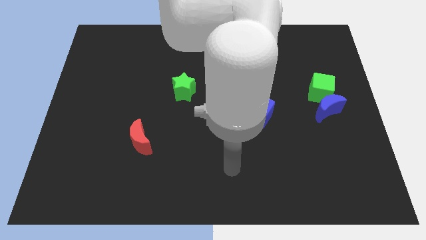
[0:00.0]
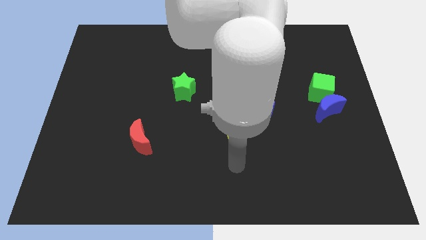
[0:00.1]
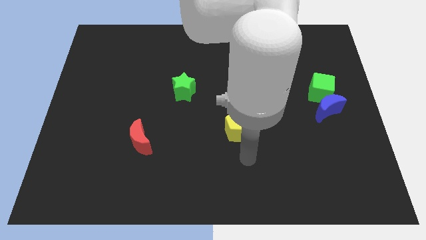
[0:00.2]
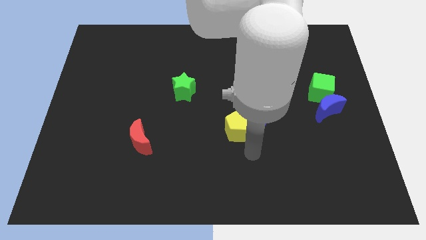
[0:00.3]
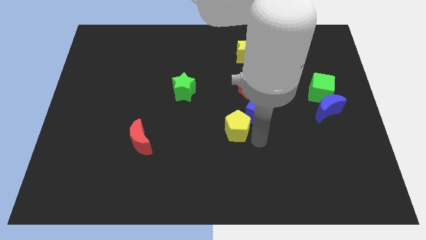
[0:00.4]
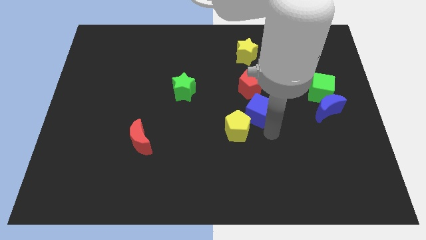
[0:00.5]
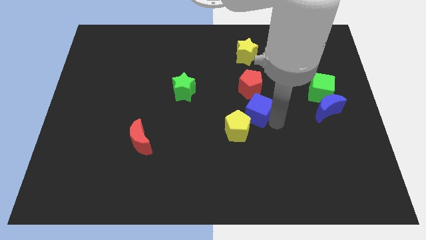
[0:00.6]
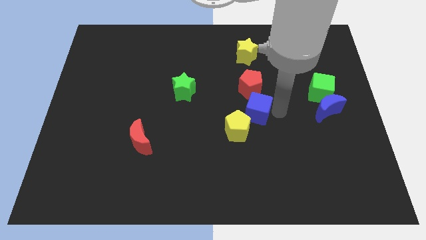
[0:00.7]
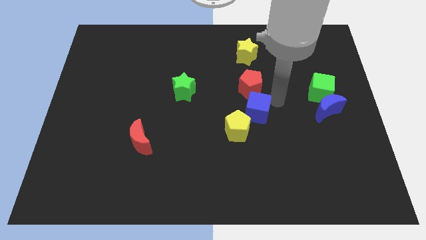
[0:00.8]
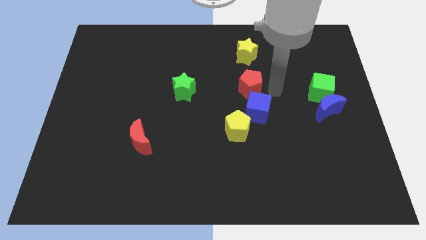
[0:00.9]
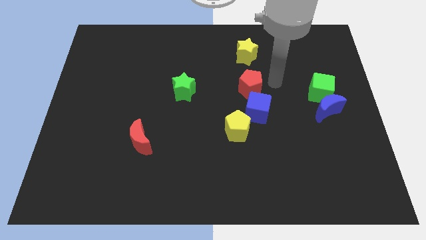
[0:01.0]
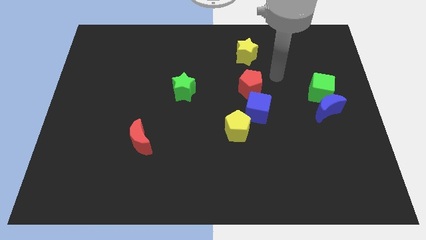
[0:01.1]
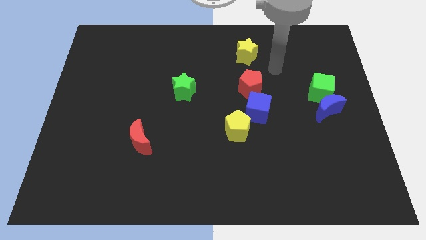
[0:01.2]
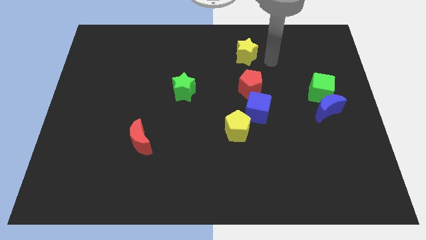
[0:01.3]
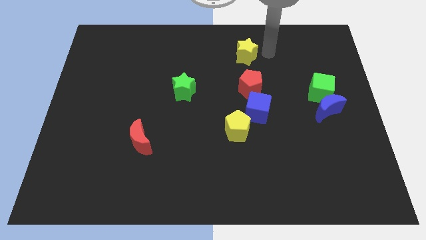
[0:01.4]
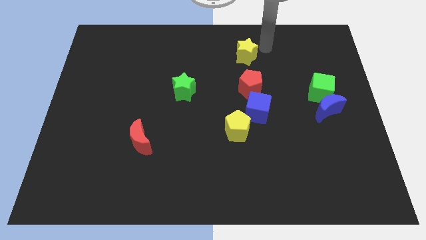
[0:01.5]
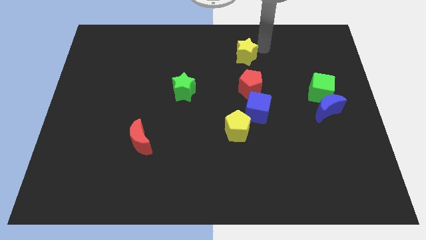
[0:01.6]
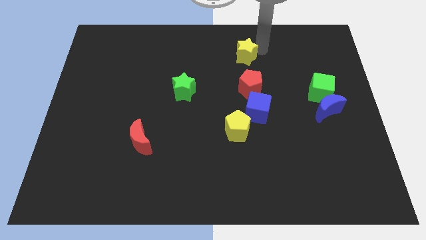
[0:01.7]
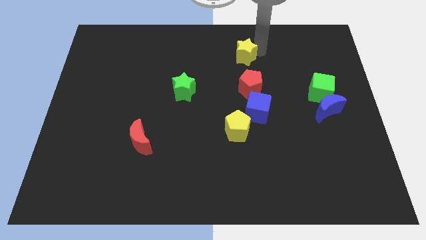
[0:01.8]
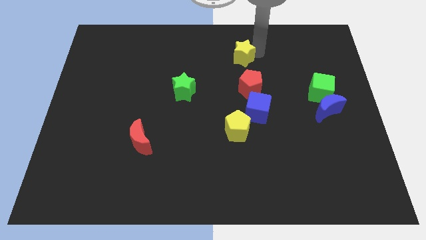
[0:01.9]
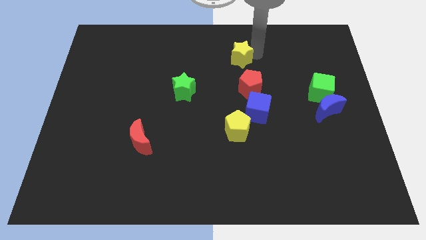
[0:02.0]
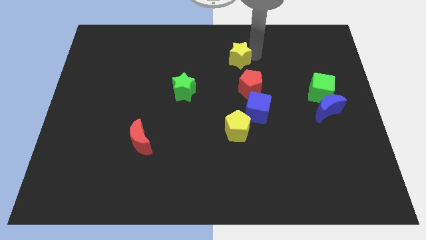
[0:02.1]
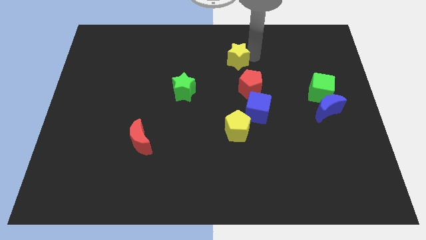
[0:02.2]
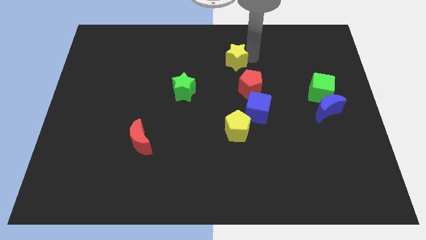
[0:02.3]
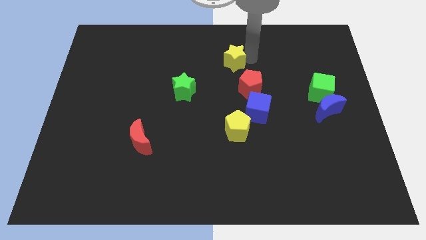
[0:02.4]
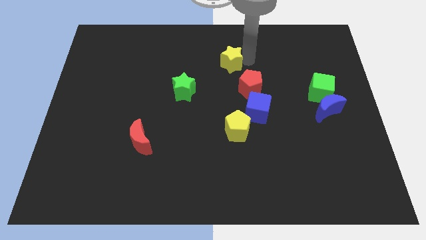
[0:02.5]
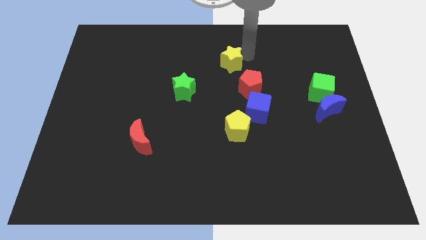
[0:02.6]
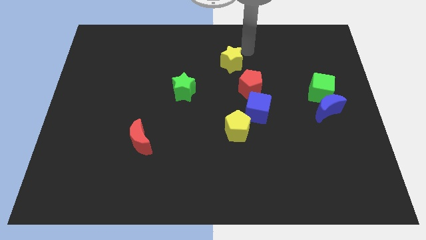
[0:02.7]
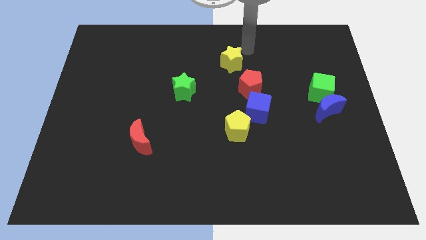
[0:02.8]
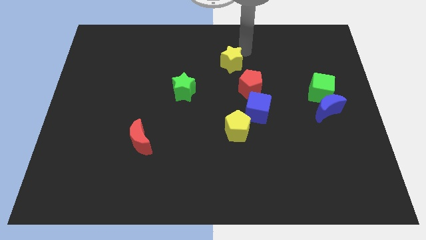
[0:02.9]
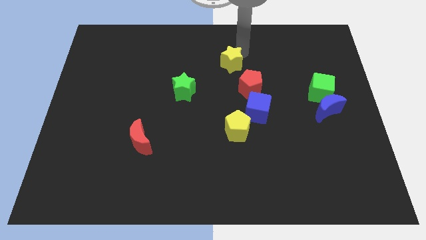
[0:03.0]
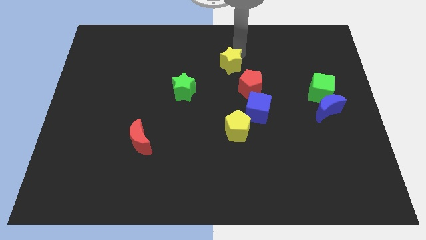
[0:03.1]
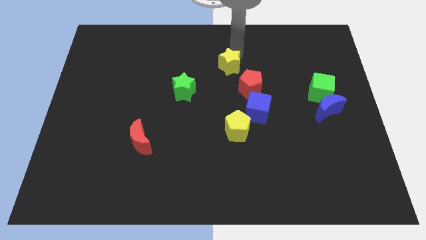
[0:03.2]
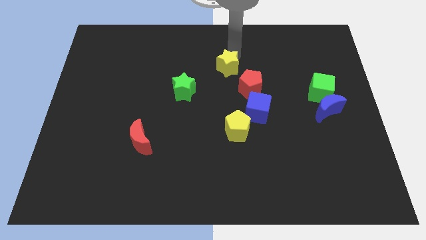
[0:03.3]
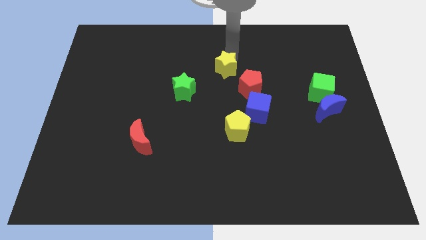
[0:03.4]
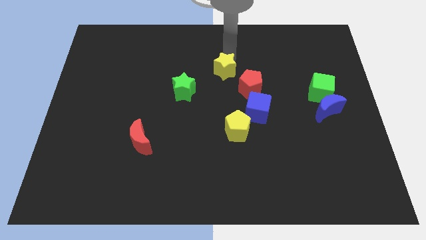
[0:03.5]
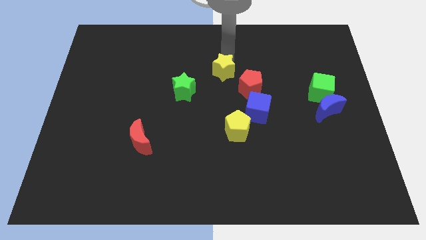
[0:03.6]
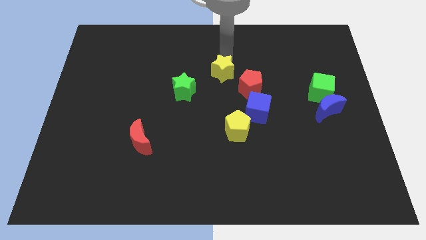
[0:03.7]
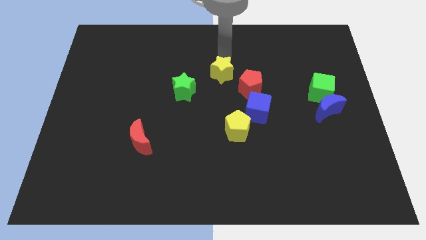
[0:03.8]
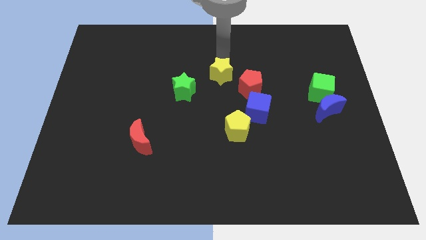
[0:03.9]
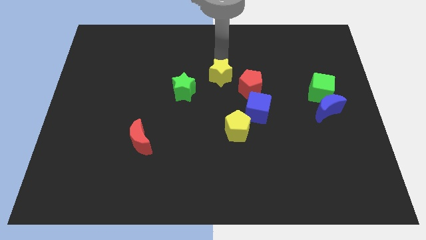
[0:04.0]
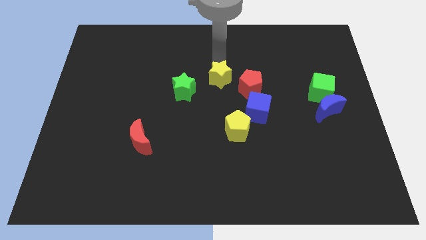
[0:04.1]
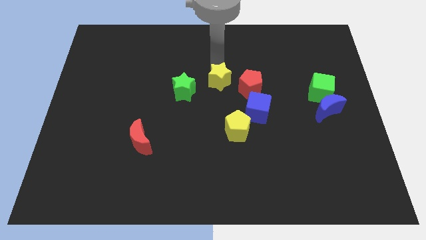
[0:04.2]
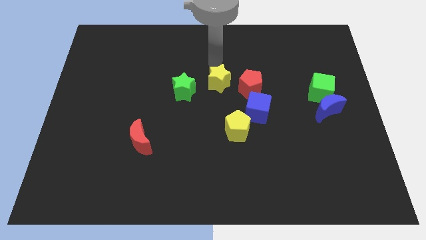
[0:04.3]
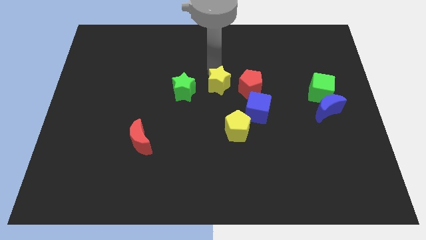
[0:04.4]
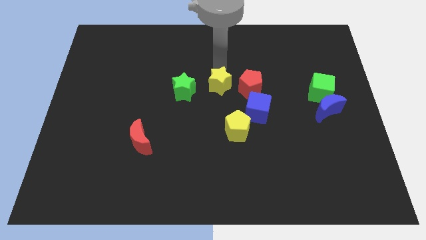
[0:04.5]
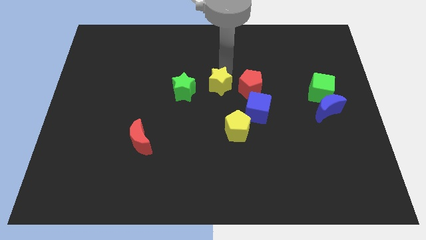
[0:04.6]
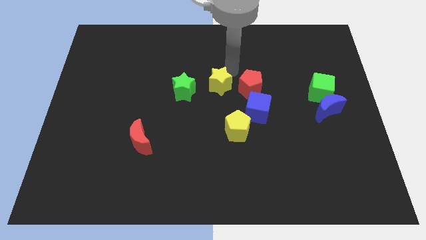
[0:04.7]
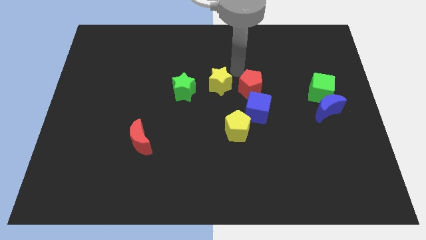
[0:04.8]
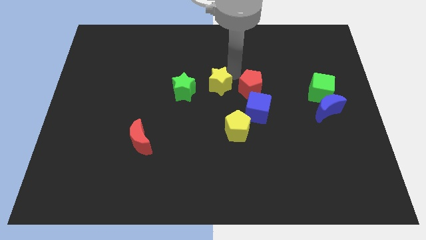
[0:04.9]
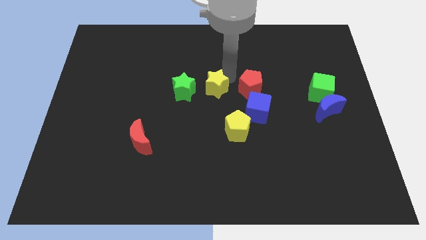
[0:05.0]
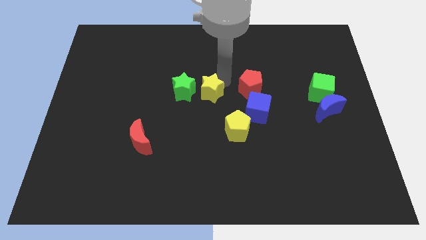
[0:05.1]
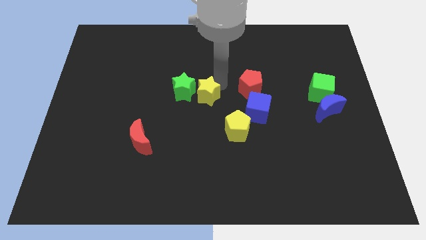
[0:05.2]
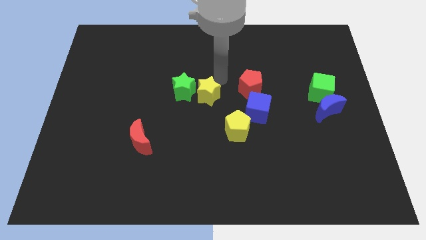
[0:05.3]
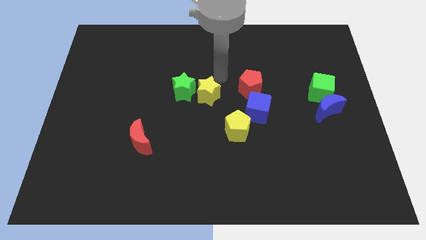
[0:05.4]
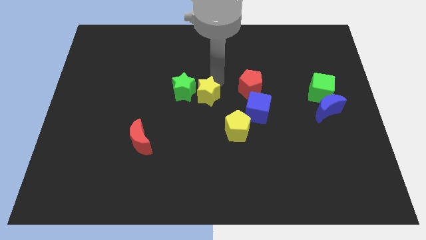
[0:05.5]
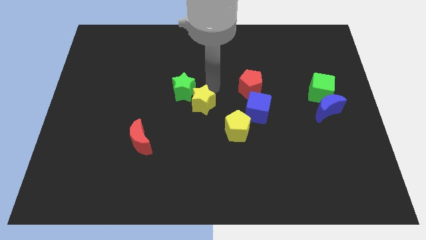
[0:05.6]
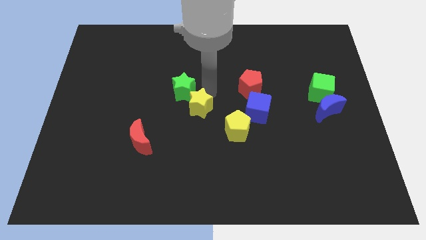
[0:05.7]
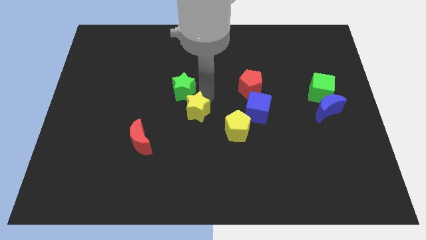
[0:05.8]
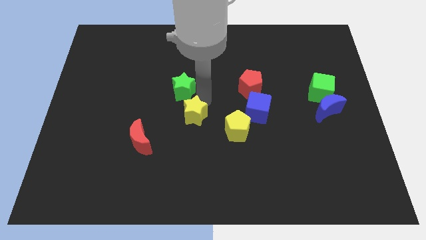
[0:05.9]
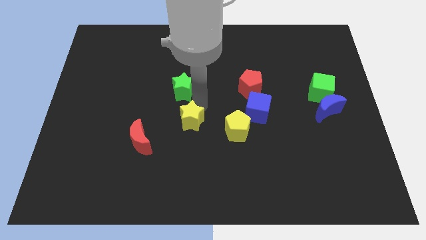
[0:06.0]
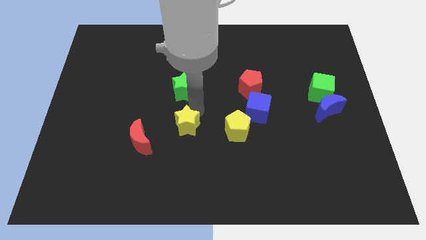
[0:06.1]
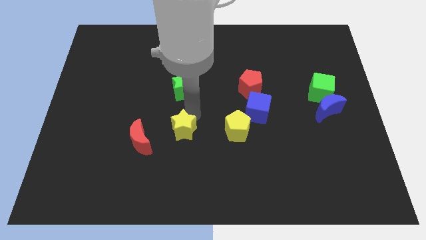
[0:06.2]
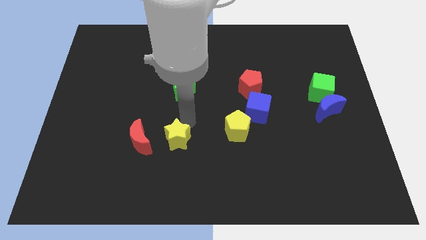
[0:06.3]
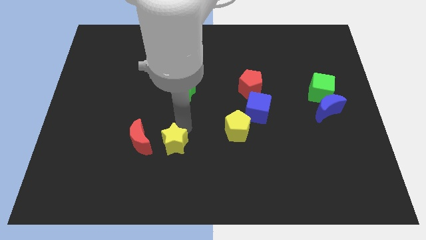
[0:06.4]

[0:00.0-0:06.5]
put the yellow star to the bottom right side of the red moon
